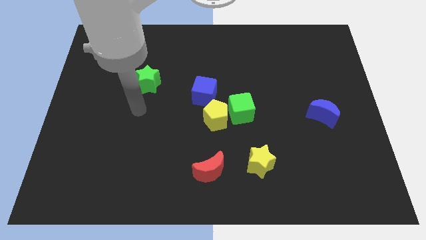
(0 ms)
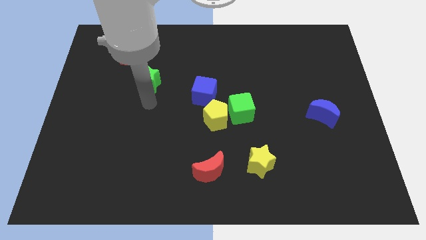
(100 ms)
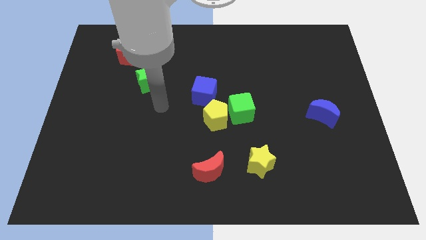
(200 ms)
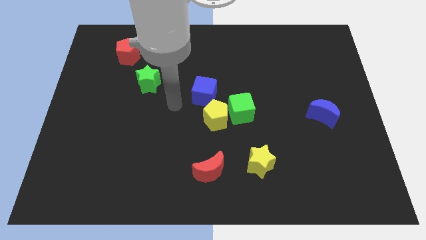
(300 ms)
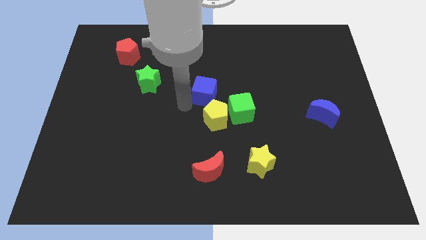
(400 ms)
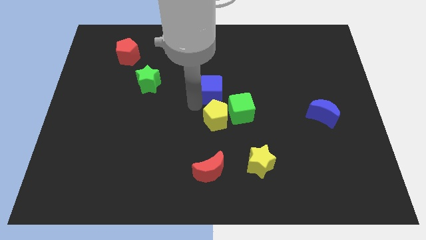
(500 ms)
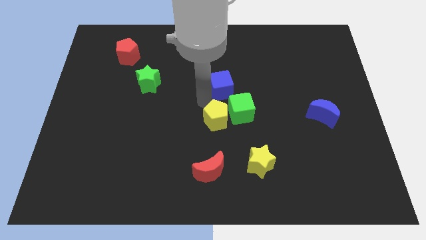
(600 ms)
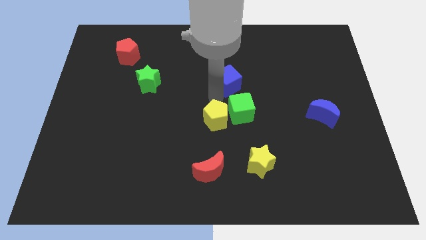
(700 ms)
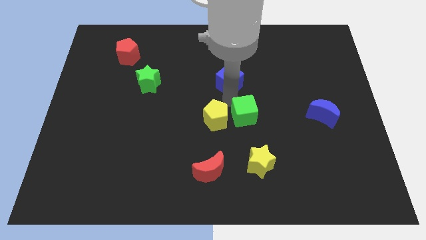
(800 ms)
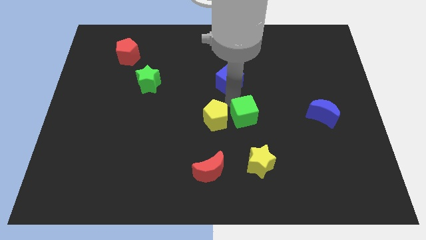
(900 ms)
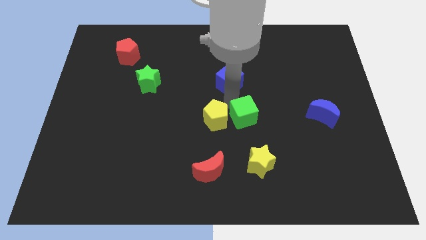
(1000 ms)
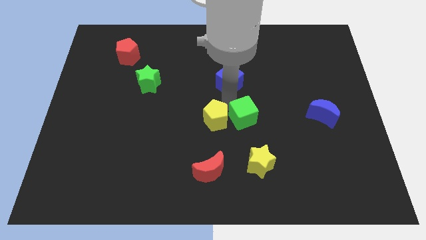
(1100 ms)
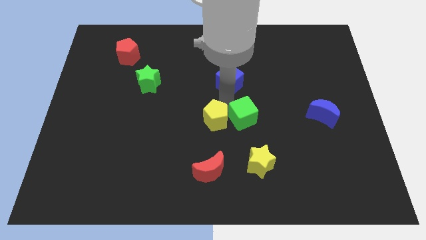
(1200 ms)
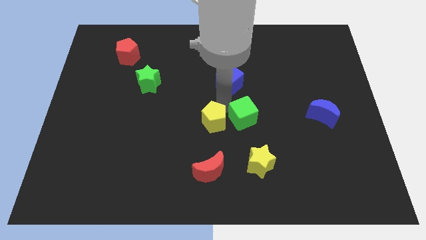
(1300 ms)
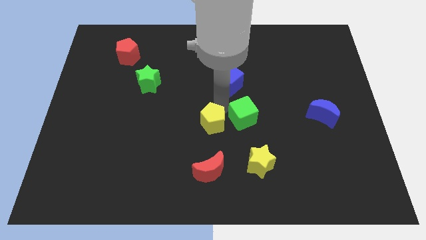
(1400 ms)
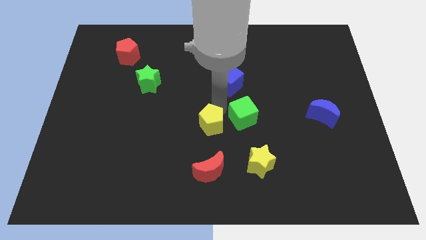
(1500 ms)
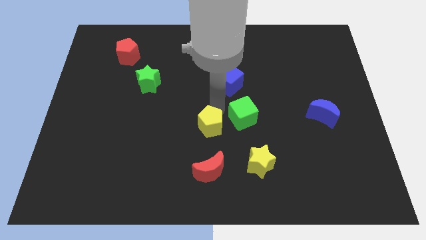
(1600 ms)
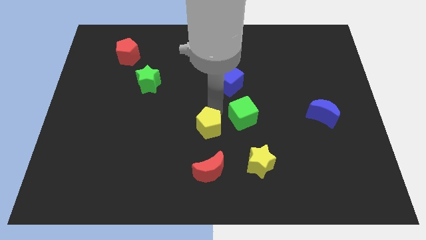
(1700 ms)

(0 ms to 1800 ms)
separate the yellow pentagon from the green cube and blue cube

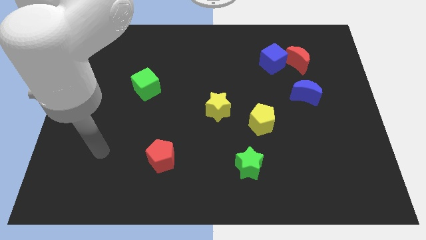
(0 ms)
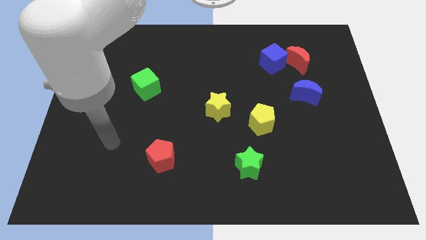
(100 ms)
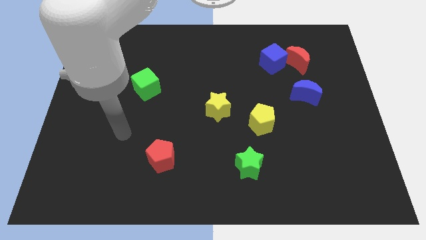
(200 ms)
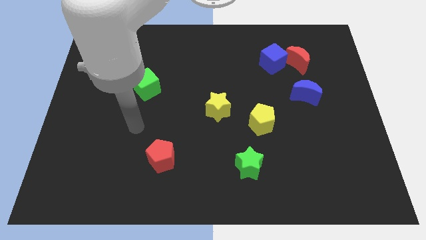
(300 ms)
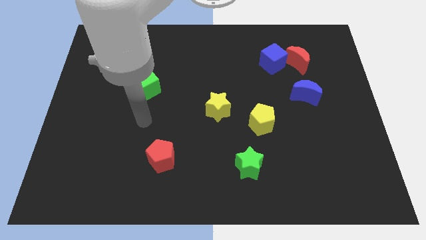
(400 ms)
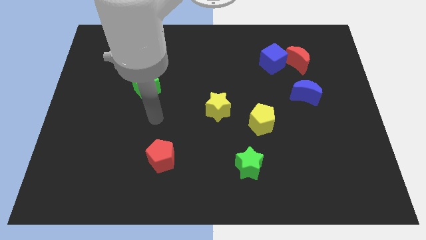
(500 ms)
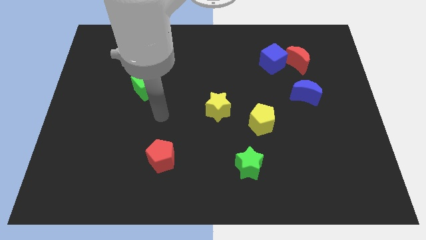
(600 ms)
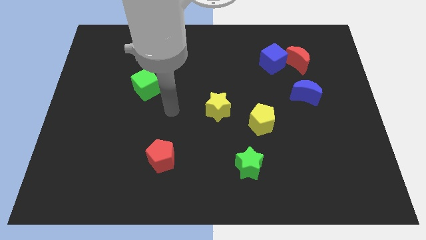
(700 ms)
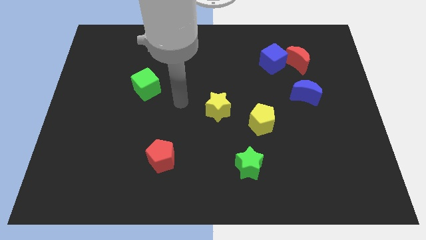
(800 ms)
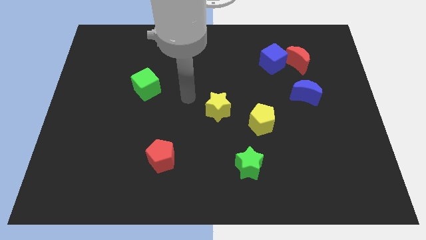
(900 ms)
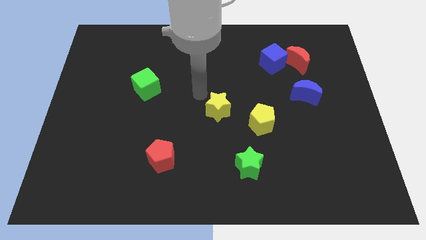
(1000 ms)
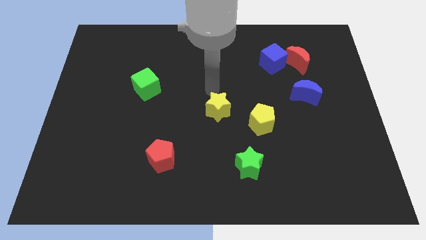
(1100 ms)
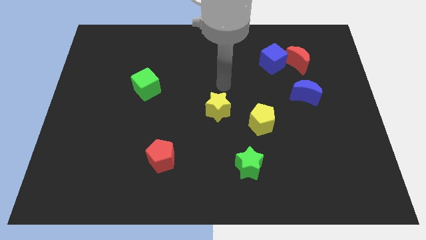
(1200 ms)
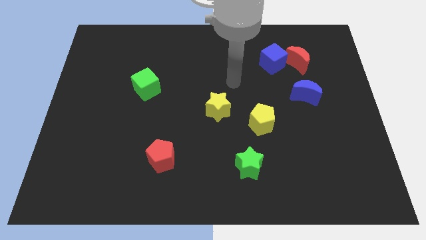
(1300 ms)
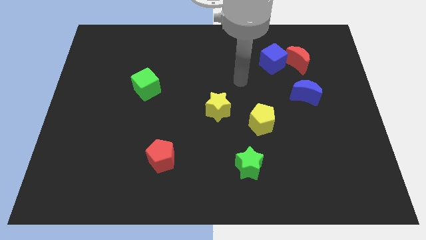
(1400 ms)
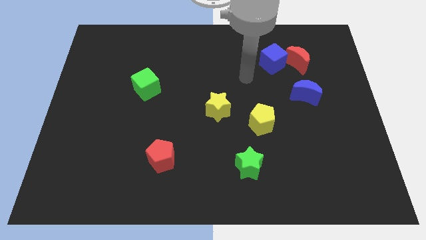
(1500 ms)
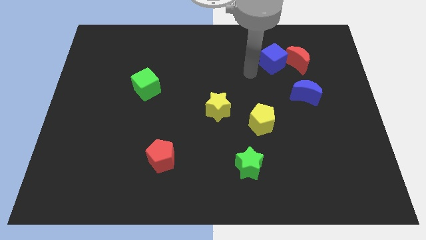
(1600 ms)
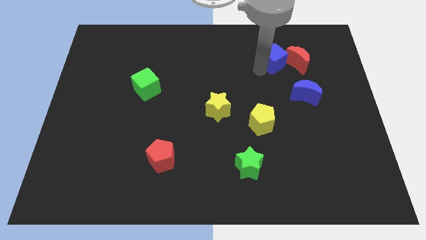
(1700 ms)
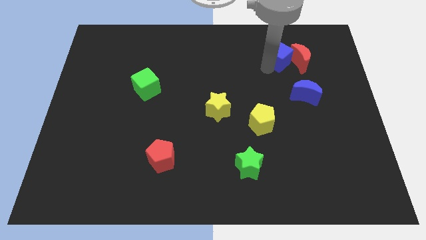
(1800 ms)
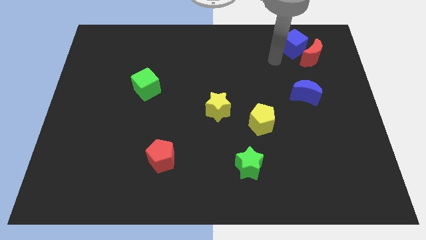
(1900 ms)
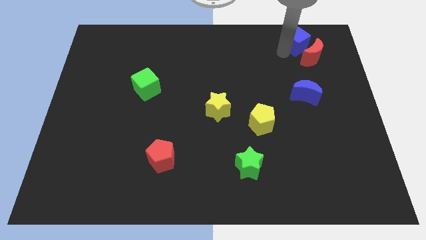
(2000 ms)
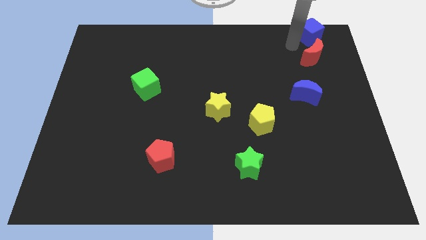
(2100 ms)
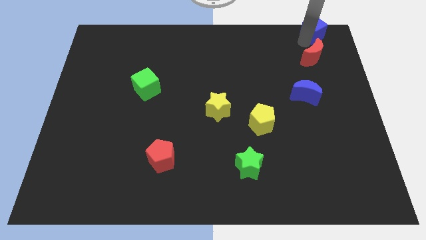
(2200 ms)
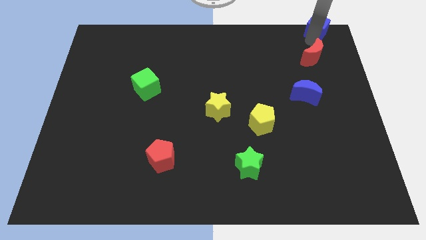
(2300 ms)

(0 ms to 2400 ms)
pull the red moon apart from the blue cube

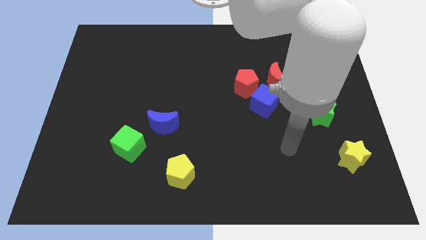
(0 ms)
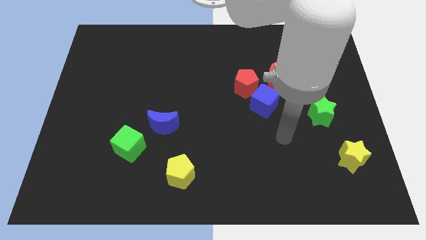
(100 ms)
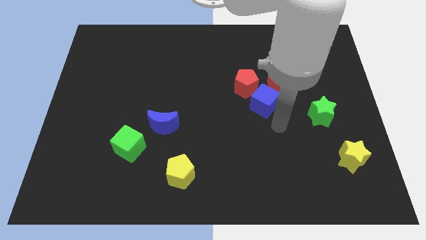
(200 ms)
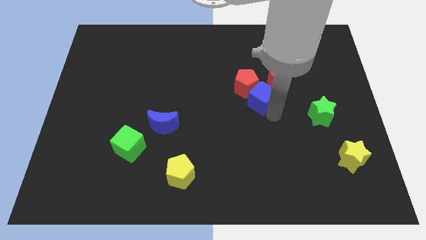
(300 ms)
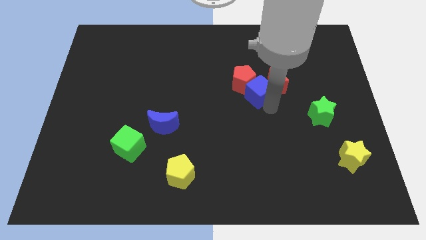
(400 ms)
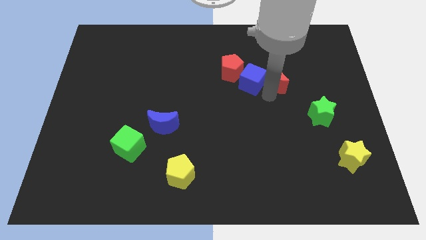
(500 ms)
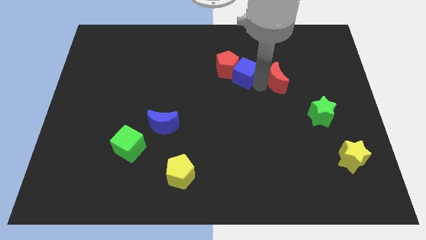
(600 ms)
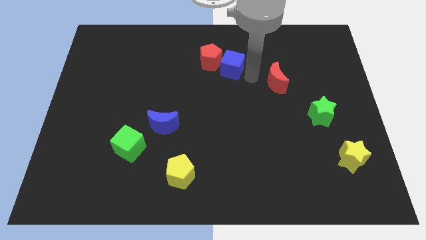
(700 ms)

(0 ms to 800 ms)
move the red pentagon away from the blue cube and red moon

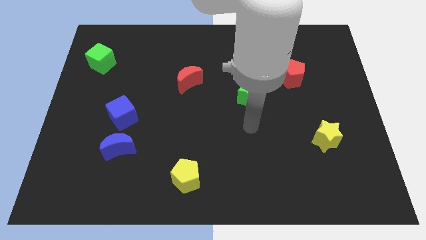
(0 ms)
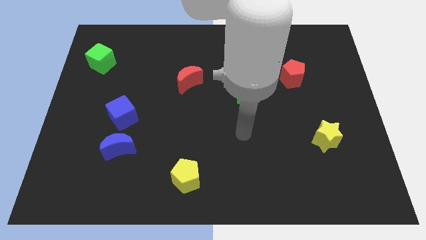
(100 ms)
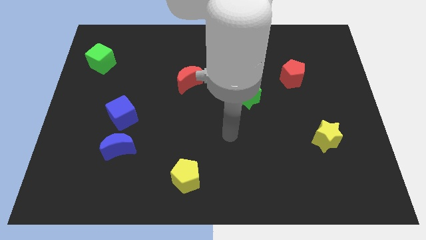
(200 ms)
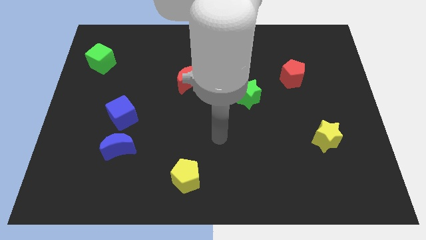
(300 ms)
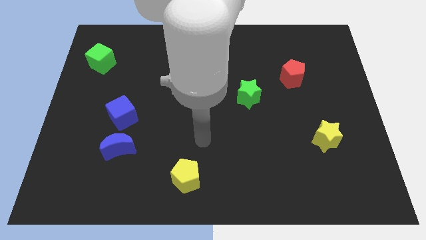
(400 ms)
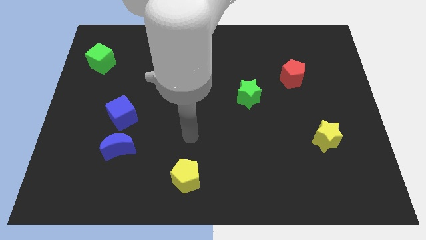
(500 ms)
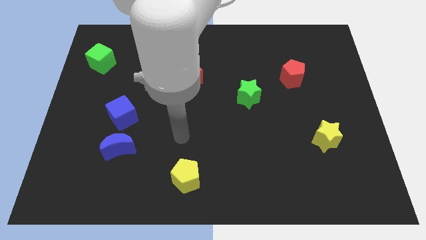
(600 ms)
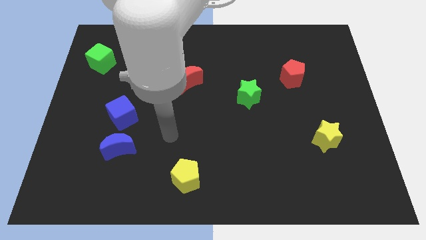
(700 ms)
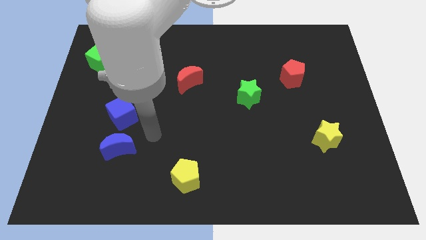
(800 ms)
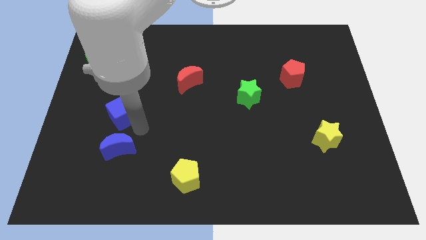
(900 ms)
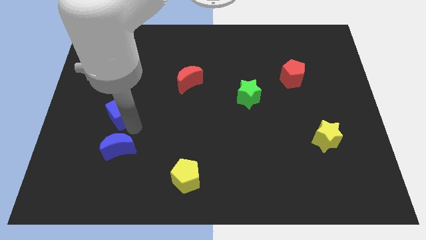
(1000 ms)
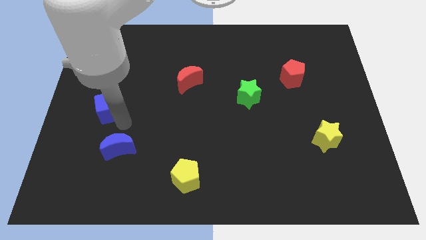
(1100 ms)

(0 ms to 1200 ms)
pull the blue moon apart from the blue cube

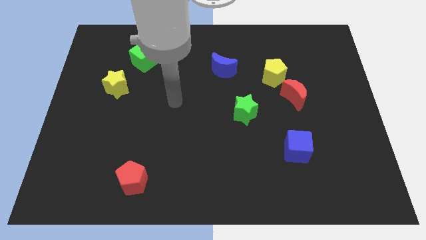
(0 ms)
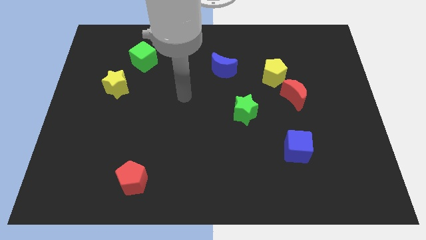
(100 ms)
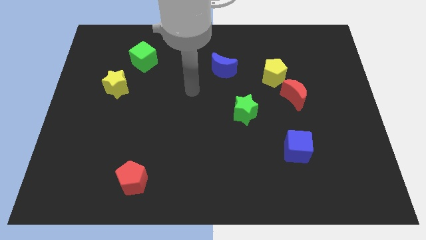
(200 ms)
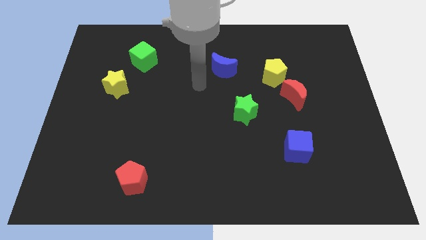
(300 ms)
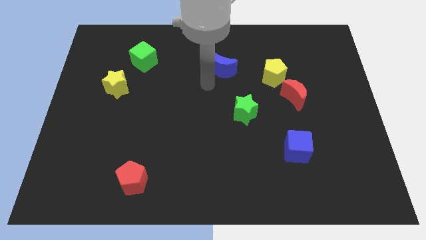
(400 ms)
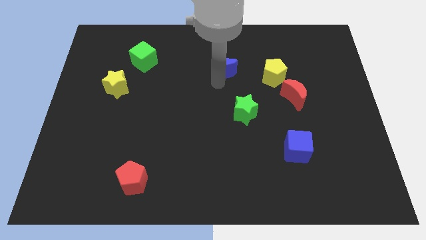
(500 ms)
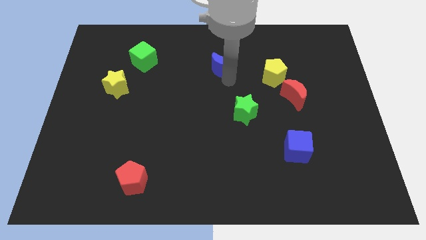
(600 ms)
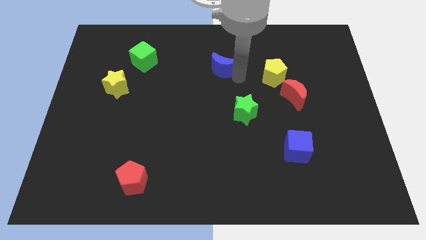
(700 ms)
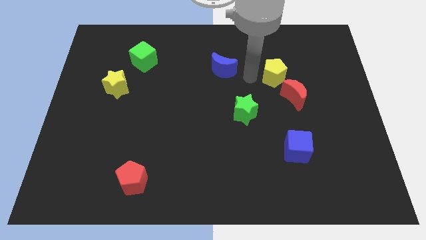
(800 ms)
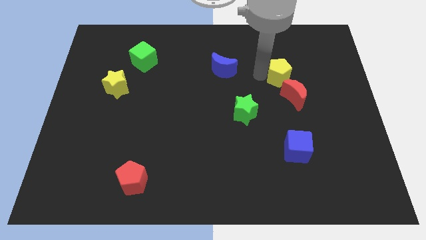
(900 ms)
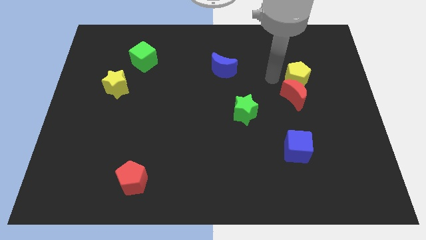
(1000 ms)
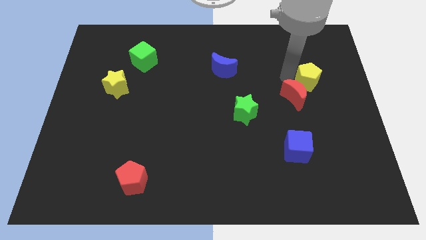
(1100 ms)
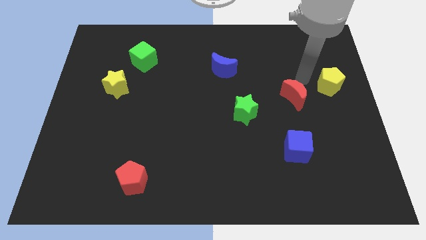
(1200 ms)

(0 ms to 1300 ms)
move the red moon away from the yellow pentagon

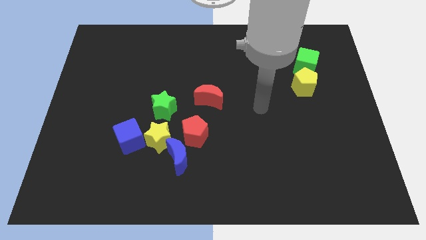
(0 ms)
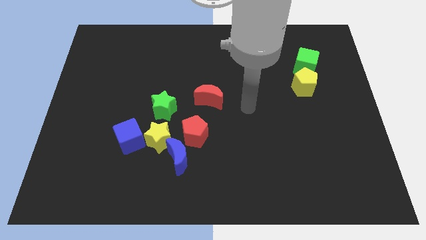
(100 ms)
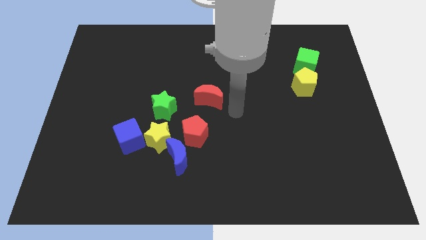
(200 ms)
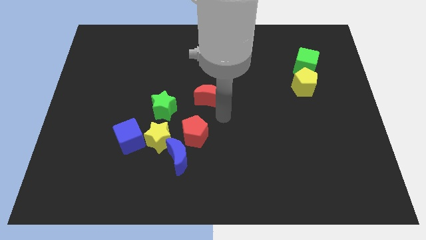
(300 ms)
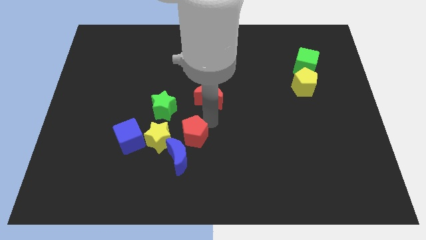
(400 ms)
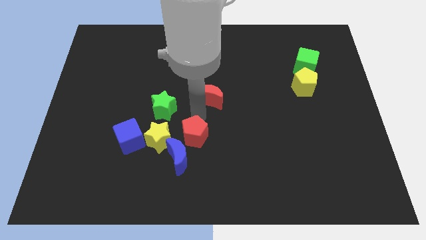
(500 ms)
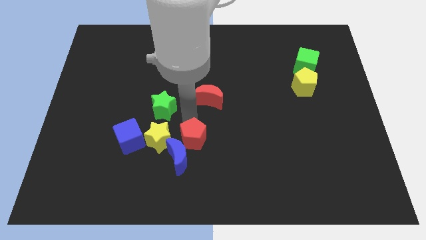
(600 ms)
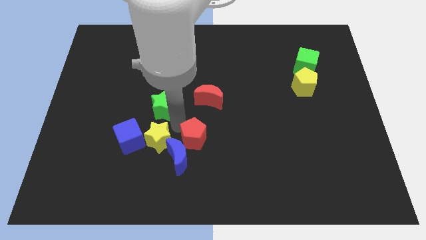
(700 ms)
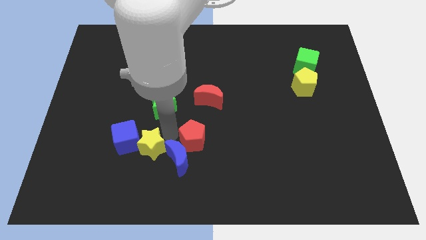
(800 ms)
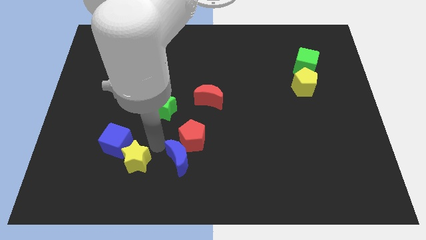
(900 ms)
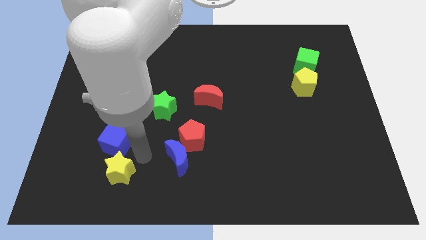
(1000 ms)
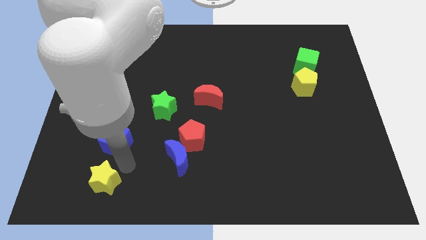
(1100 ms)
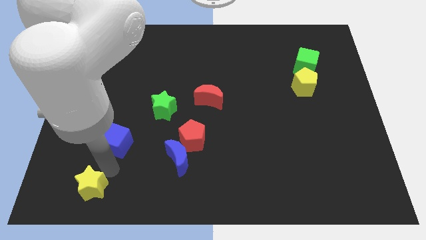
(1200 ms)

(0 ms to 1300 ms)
separate the blue cube from the yellow star

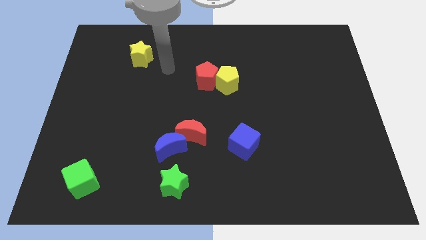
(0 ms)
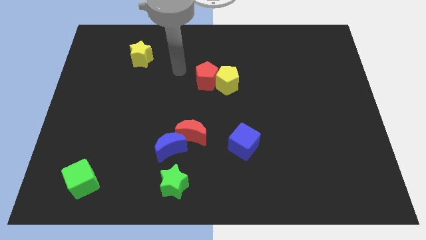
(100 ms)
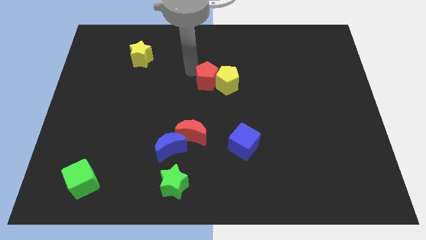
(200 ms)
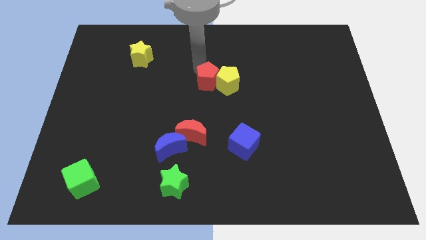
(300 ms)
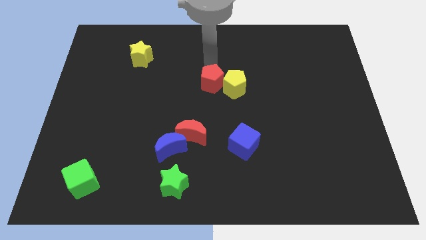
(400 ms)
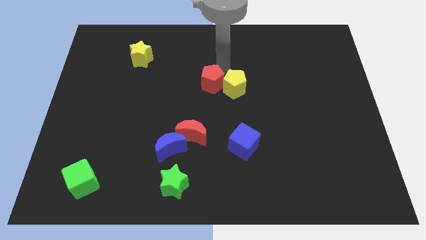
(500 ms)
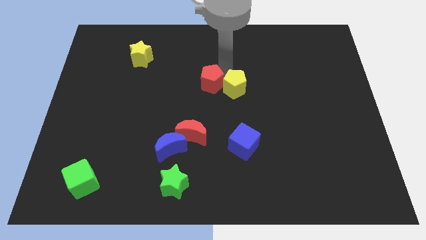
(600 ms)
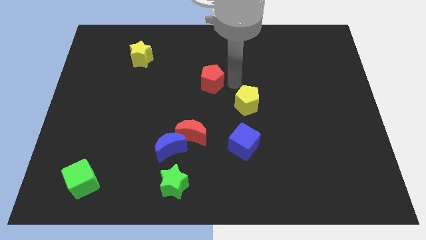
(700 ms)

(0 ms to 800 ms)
separate the red pentagon from the yellow pentagon
